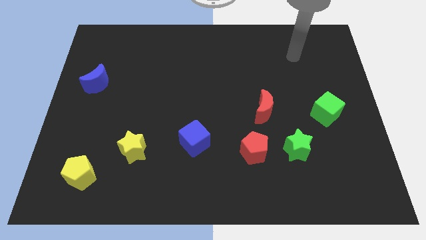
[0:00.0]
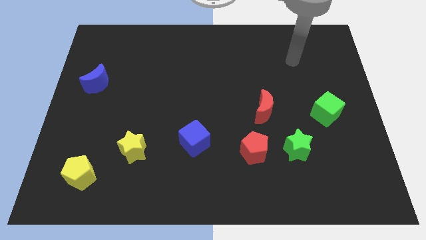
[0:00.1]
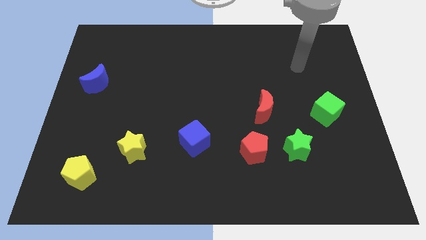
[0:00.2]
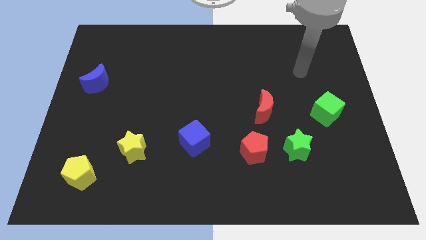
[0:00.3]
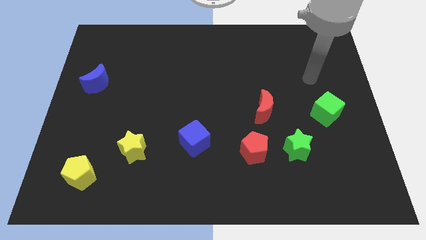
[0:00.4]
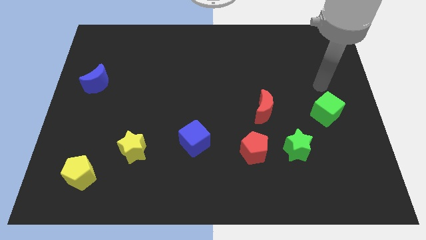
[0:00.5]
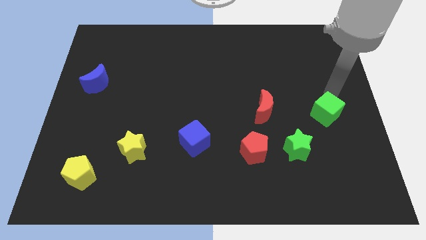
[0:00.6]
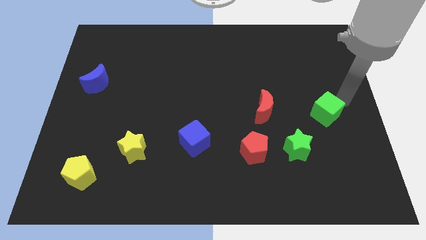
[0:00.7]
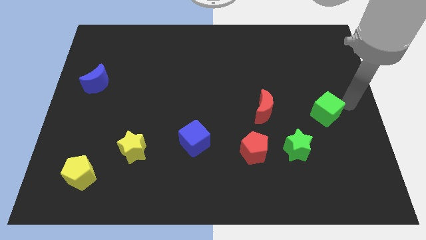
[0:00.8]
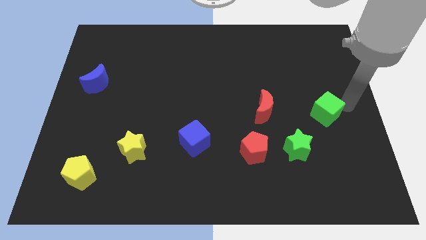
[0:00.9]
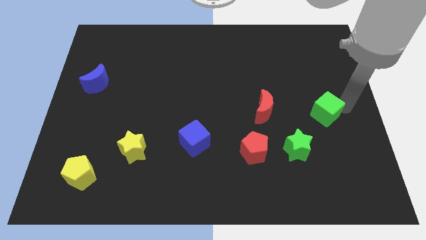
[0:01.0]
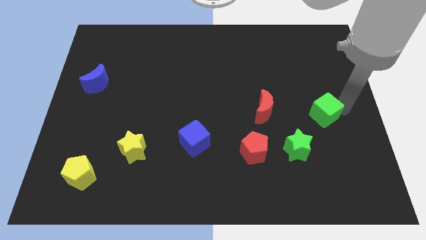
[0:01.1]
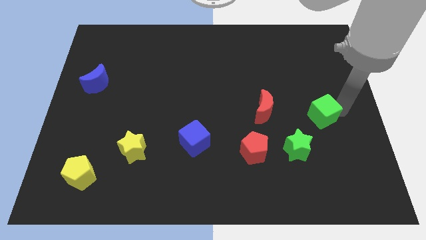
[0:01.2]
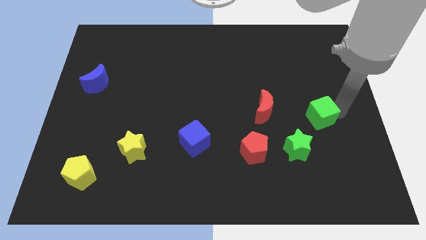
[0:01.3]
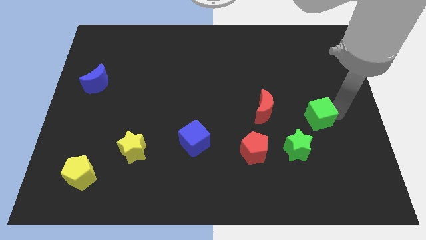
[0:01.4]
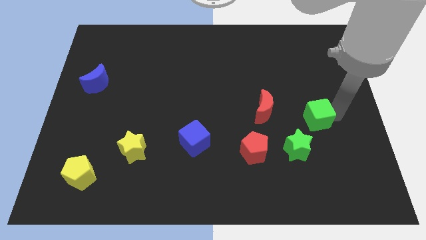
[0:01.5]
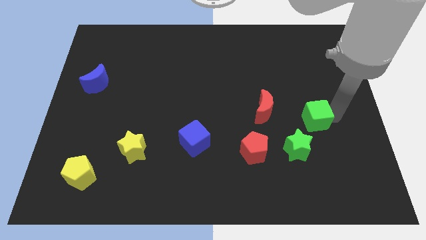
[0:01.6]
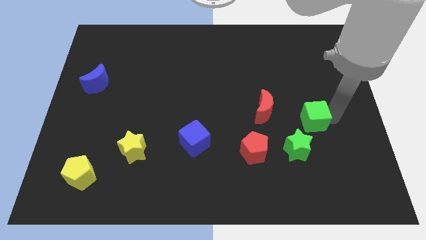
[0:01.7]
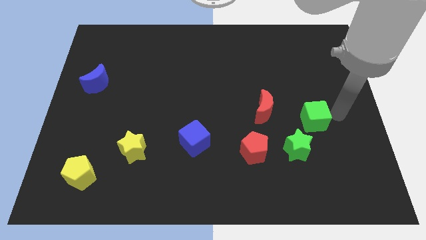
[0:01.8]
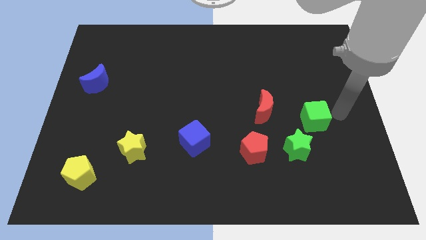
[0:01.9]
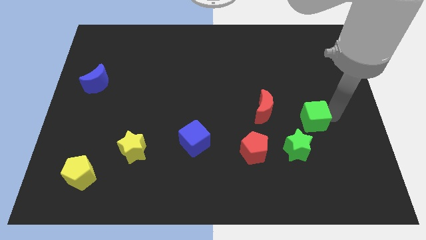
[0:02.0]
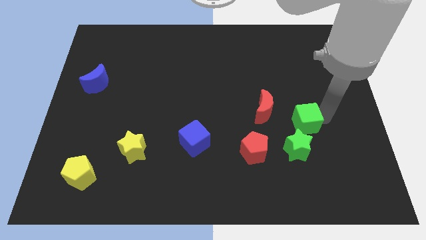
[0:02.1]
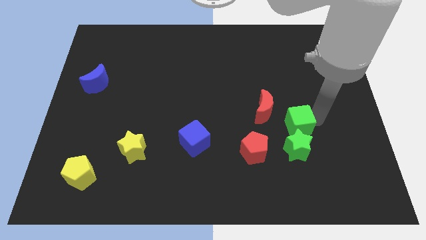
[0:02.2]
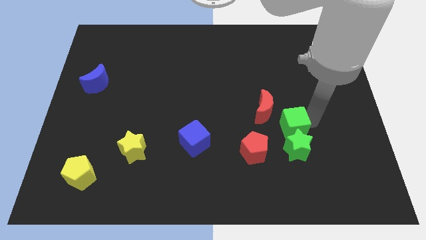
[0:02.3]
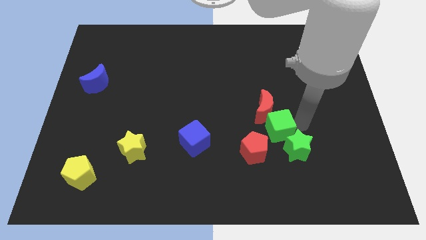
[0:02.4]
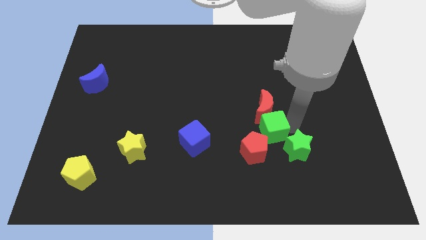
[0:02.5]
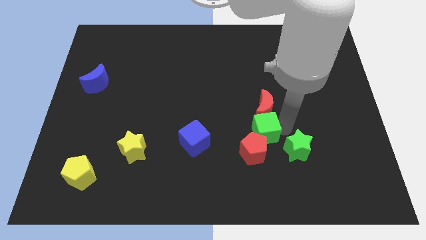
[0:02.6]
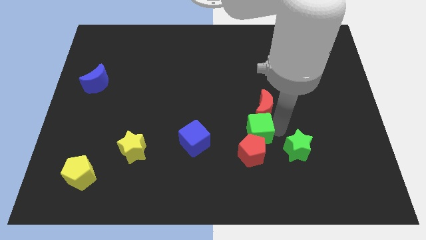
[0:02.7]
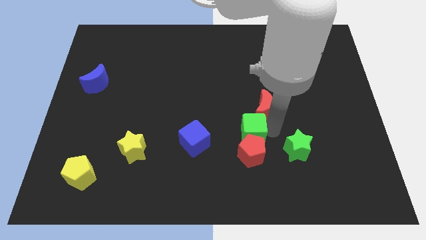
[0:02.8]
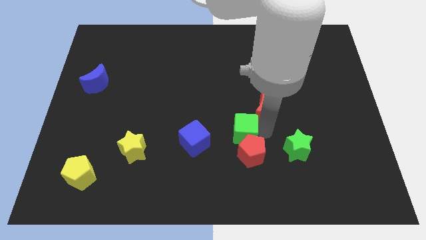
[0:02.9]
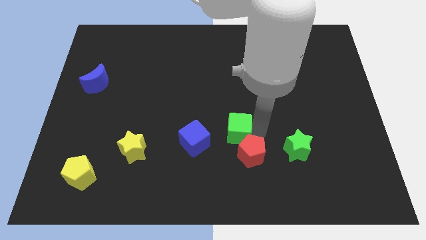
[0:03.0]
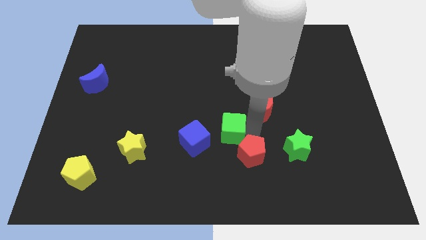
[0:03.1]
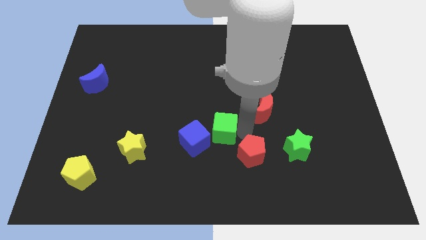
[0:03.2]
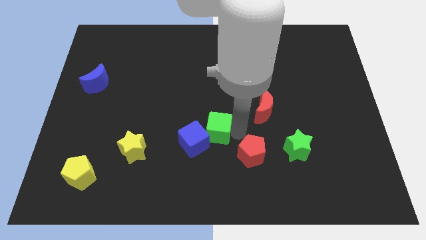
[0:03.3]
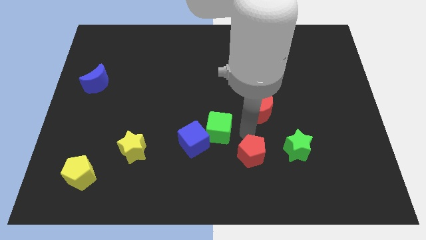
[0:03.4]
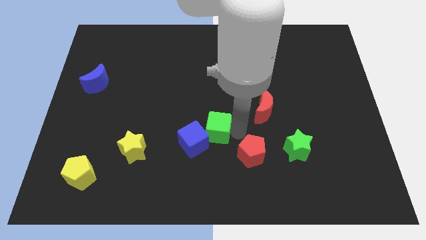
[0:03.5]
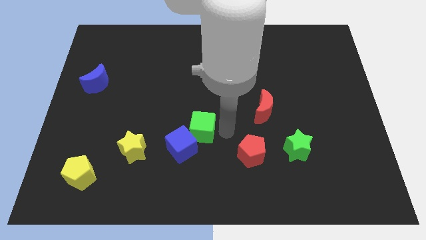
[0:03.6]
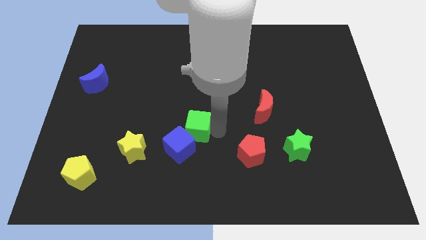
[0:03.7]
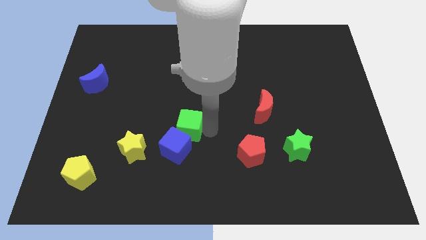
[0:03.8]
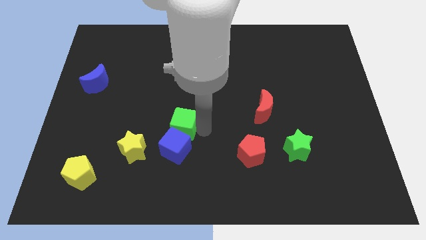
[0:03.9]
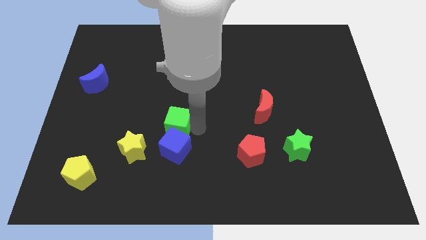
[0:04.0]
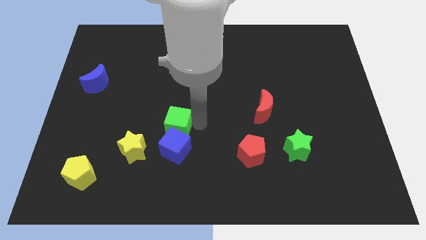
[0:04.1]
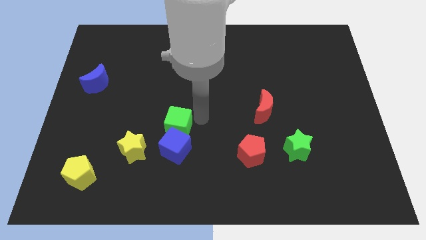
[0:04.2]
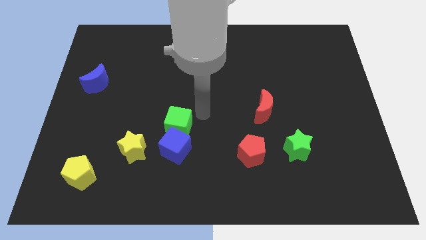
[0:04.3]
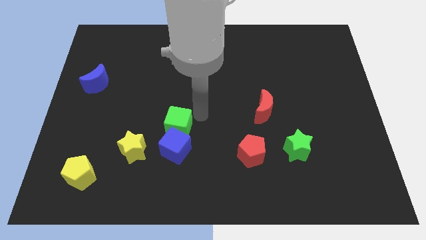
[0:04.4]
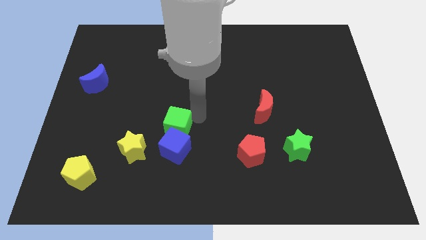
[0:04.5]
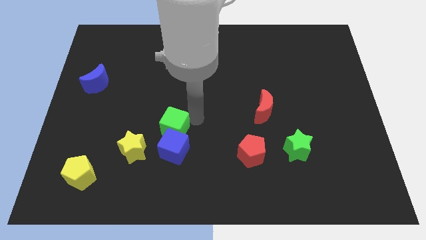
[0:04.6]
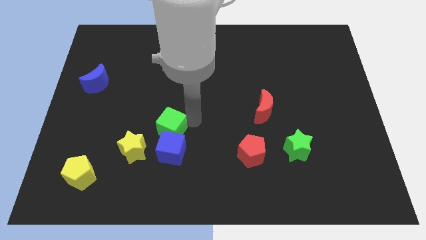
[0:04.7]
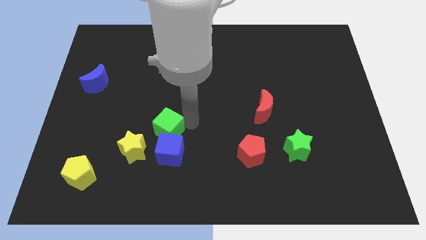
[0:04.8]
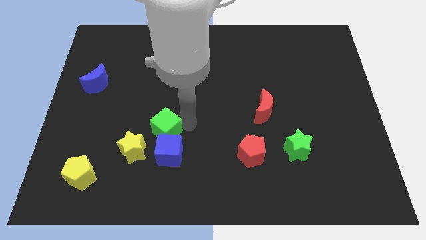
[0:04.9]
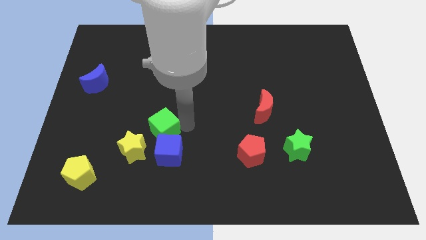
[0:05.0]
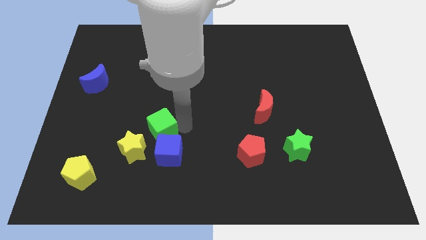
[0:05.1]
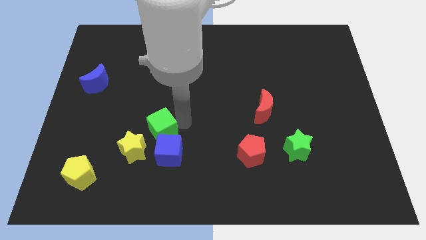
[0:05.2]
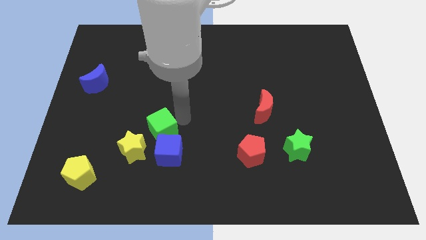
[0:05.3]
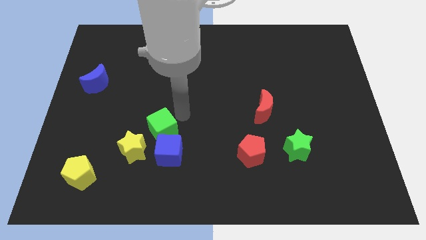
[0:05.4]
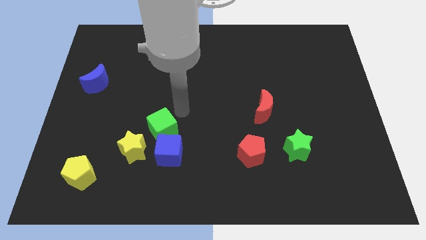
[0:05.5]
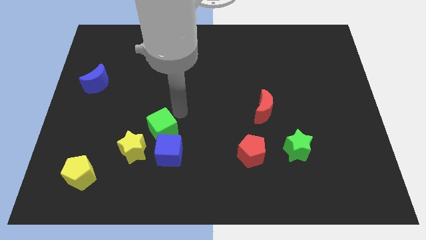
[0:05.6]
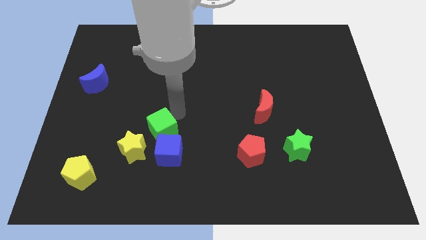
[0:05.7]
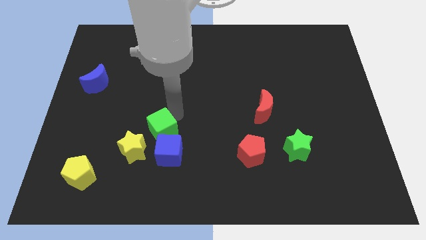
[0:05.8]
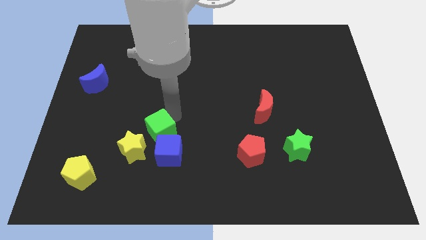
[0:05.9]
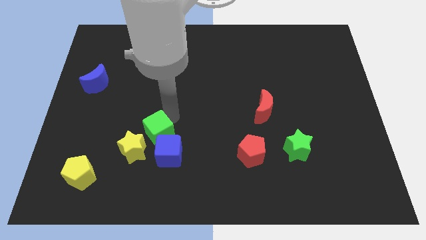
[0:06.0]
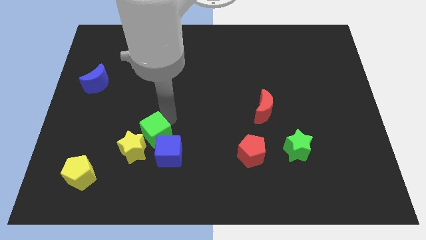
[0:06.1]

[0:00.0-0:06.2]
move the green cube to the yellow star

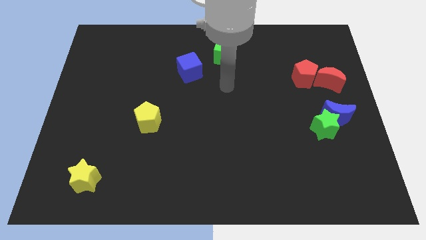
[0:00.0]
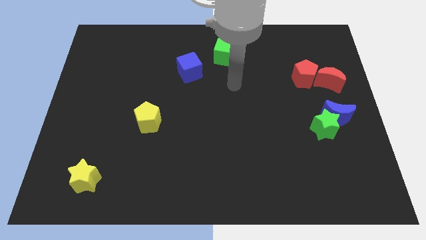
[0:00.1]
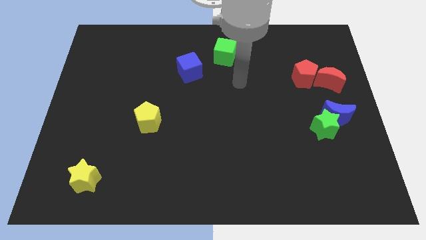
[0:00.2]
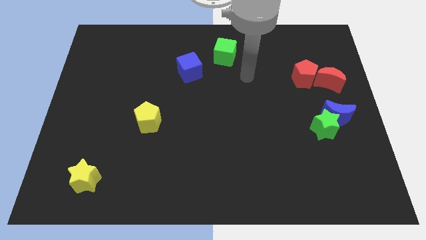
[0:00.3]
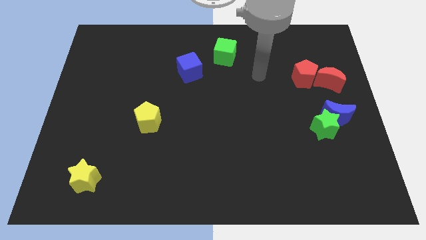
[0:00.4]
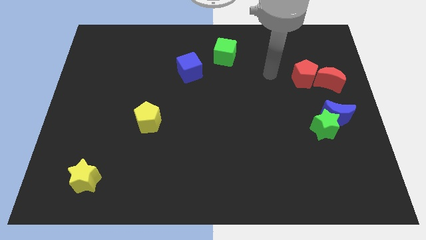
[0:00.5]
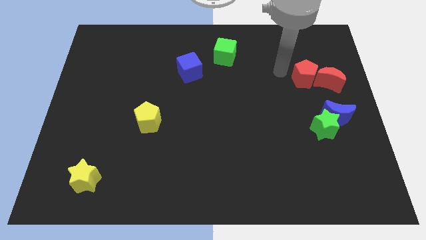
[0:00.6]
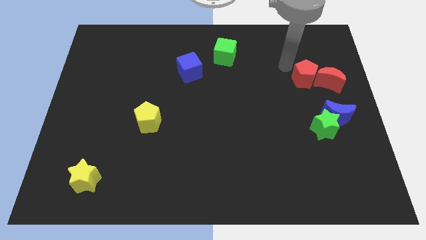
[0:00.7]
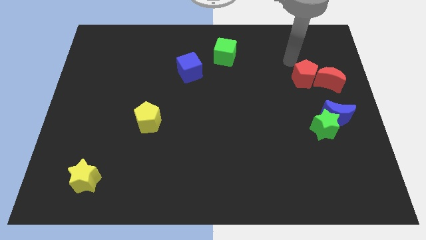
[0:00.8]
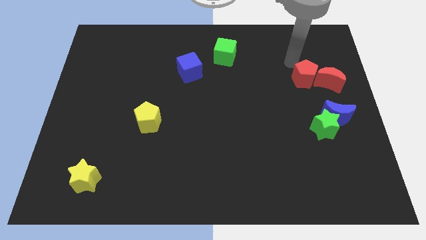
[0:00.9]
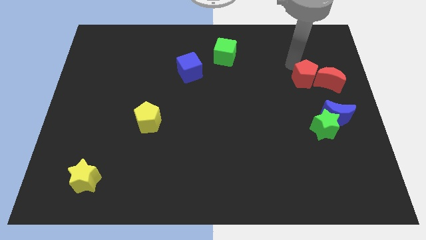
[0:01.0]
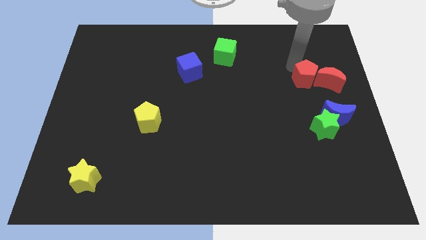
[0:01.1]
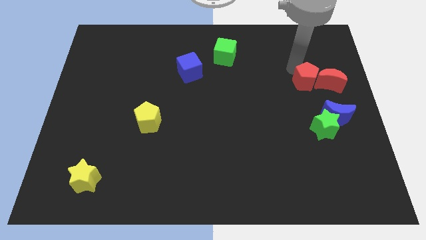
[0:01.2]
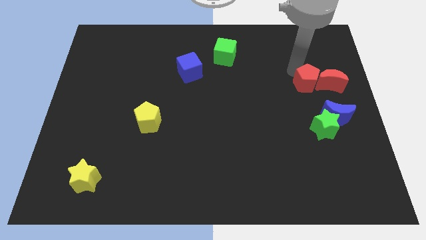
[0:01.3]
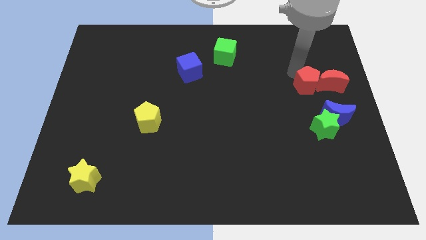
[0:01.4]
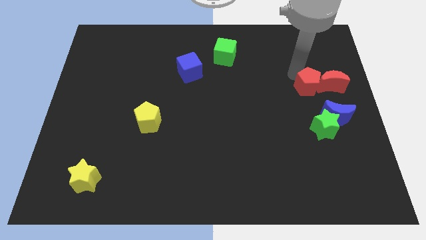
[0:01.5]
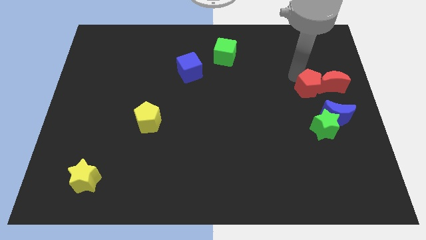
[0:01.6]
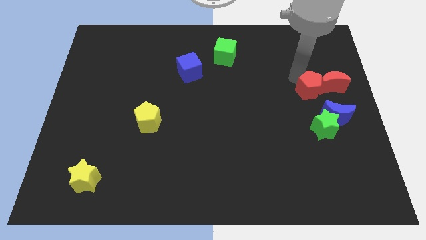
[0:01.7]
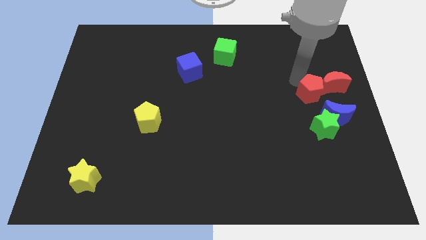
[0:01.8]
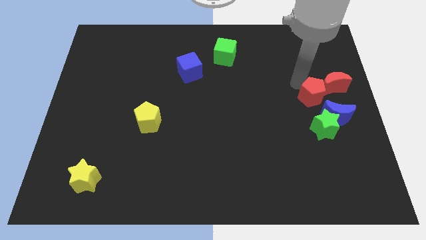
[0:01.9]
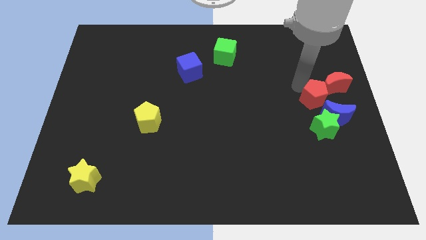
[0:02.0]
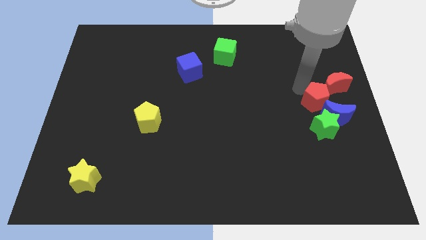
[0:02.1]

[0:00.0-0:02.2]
put the red pentagon next to the blue moon
